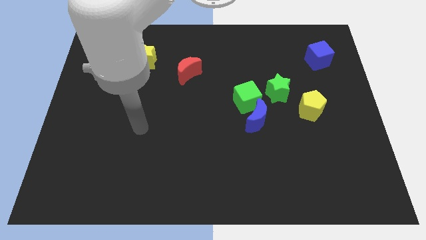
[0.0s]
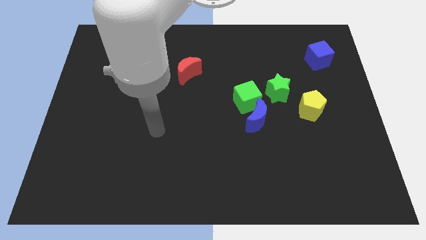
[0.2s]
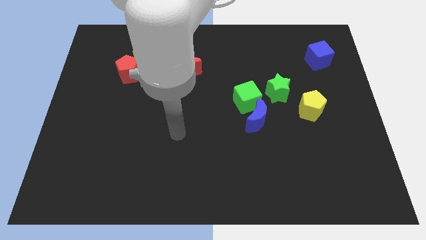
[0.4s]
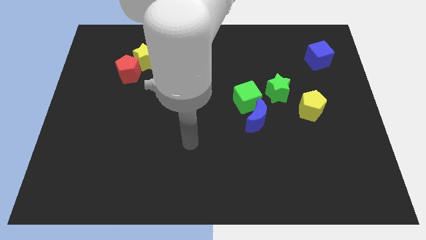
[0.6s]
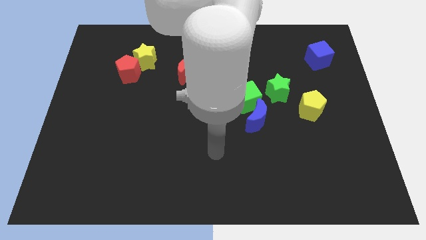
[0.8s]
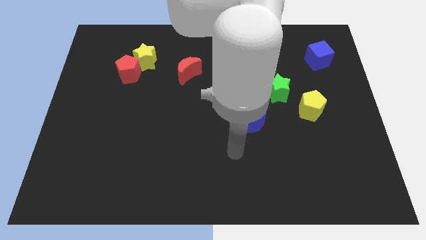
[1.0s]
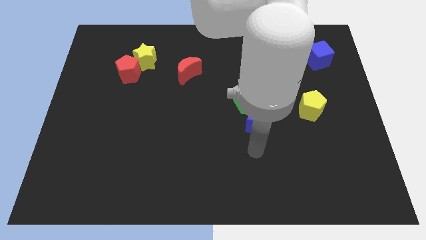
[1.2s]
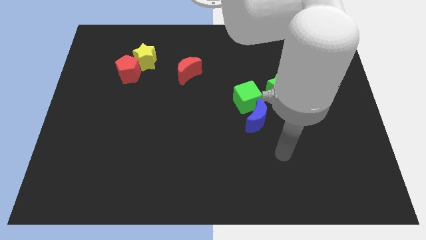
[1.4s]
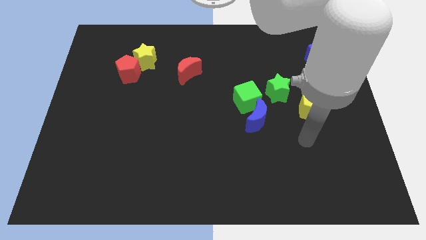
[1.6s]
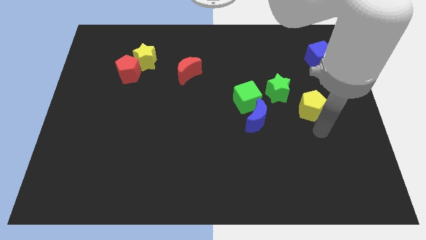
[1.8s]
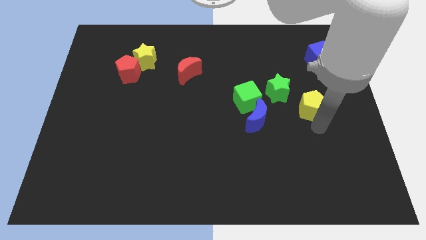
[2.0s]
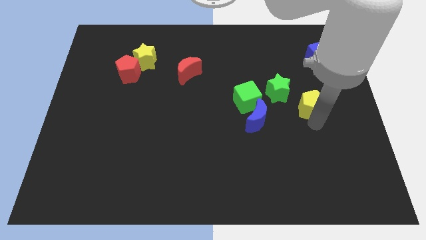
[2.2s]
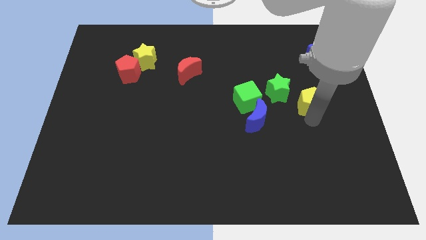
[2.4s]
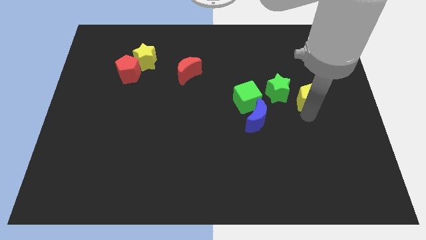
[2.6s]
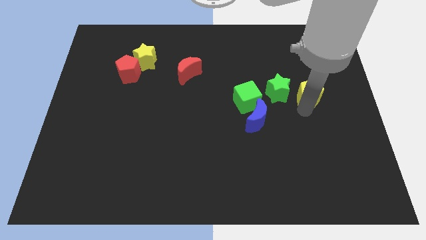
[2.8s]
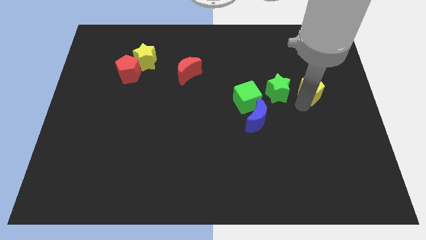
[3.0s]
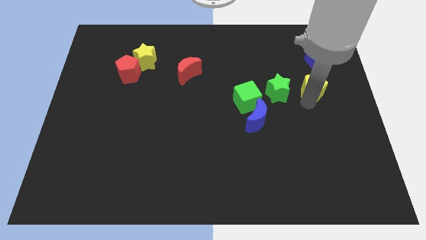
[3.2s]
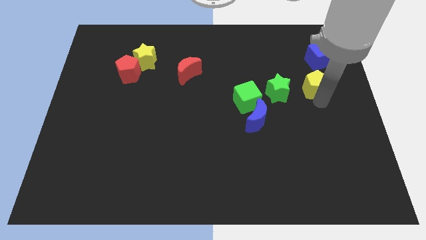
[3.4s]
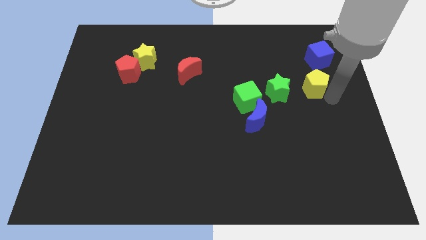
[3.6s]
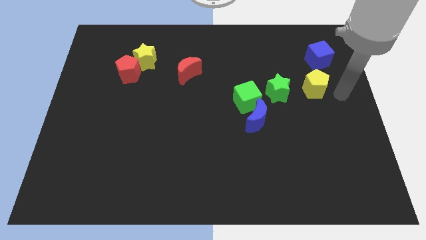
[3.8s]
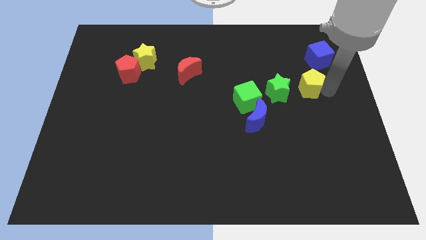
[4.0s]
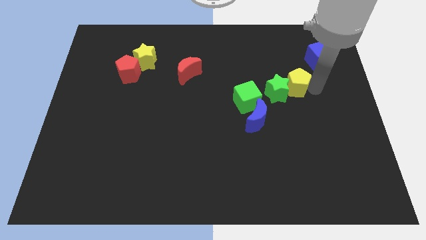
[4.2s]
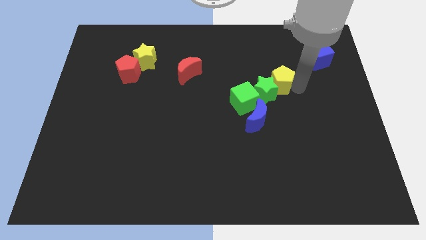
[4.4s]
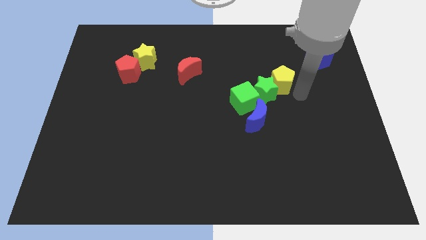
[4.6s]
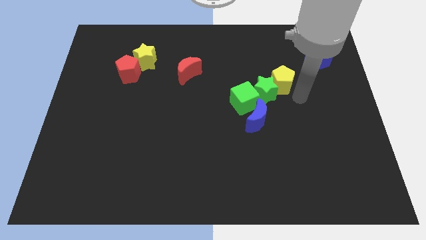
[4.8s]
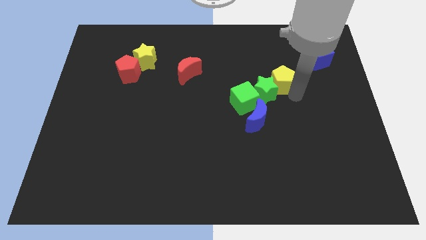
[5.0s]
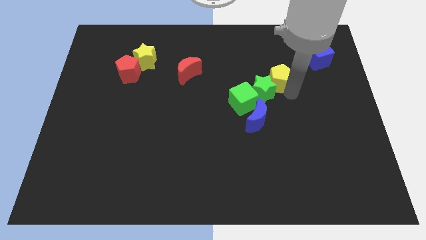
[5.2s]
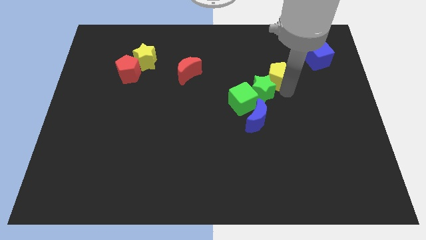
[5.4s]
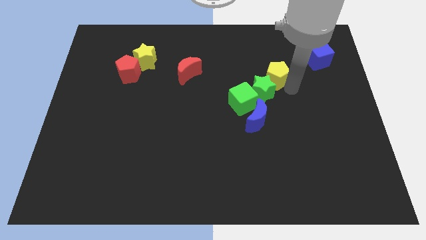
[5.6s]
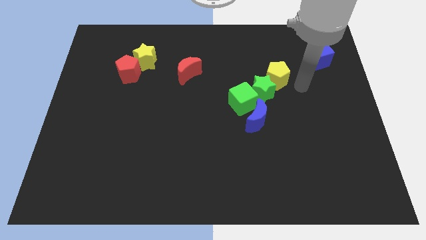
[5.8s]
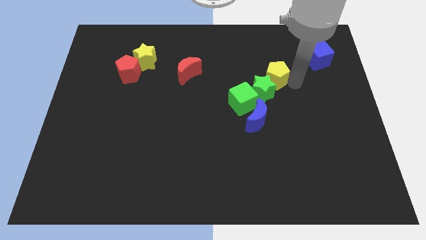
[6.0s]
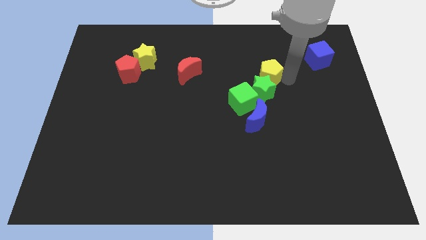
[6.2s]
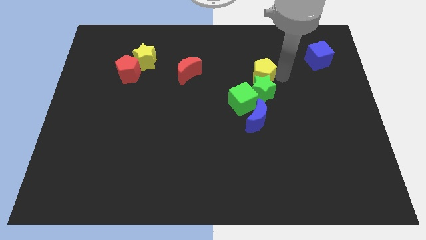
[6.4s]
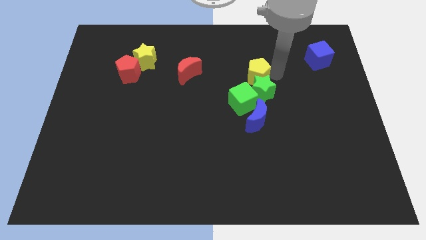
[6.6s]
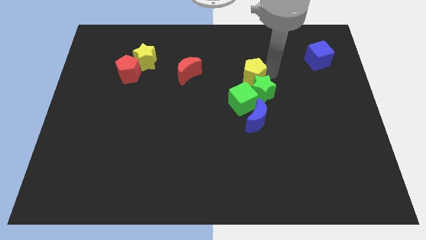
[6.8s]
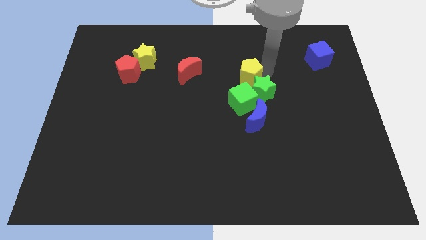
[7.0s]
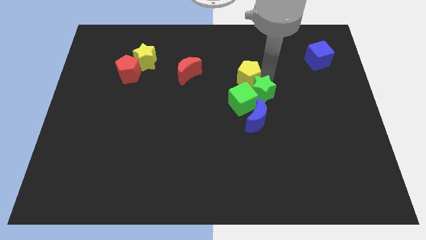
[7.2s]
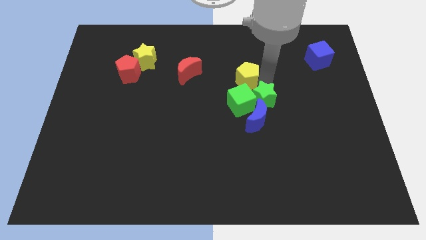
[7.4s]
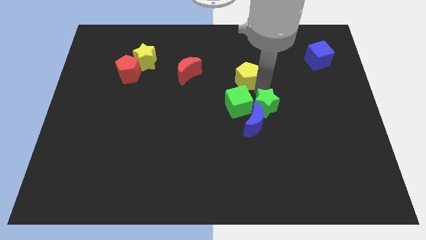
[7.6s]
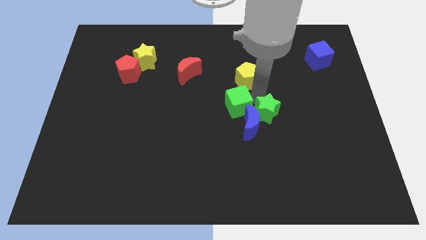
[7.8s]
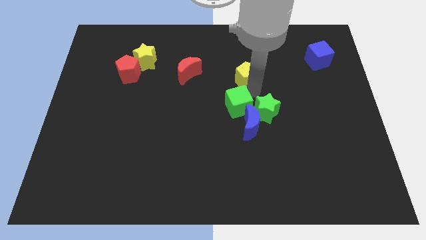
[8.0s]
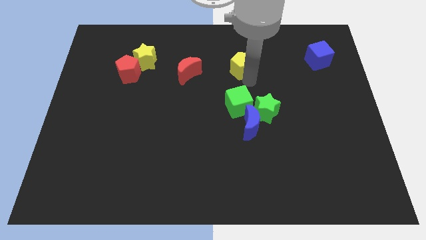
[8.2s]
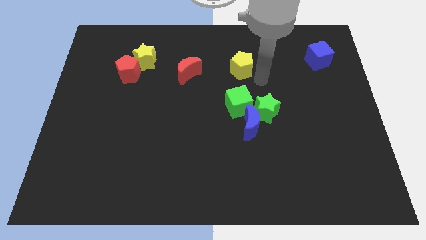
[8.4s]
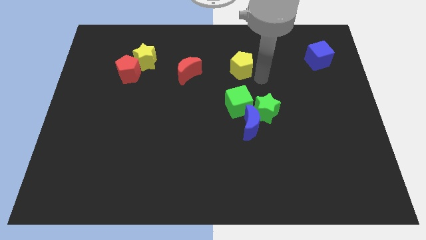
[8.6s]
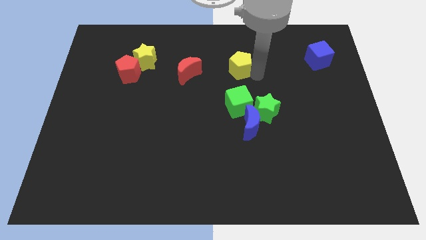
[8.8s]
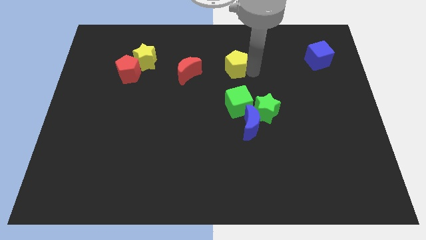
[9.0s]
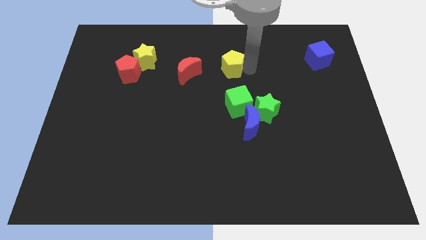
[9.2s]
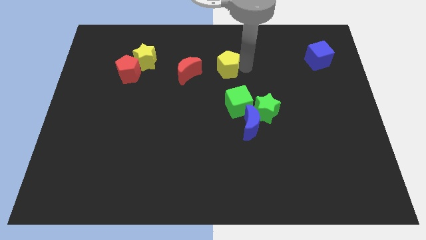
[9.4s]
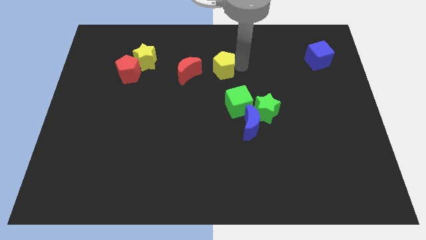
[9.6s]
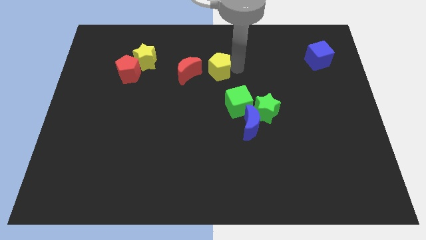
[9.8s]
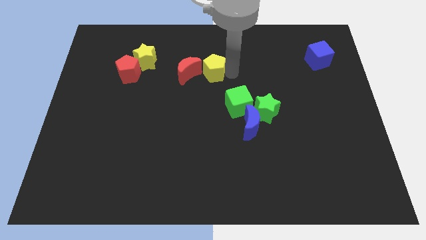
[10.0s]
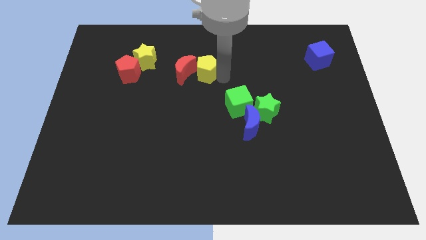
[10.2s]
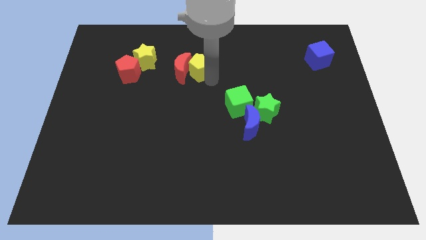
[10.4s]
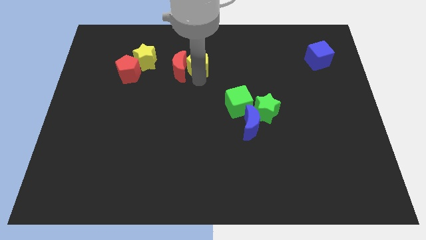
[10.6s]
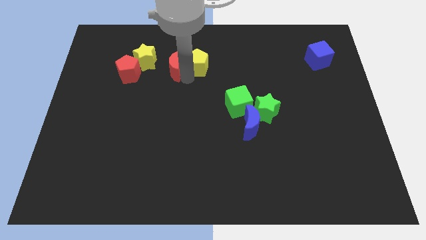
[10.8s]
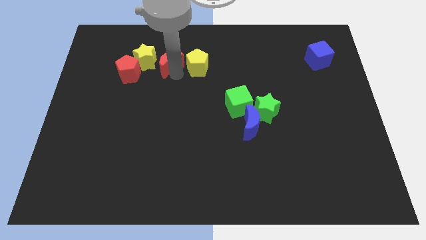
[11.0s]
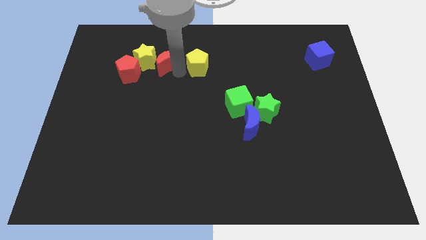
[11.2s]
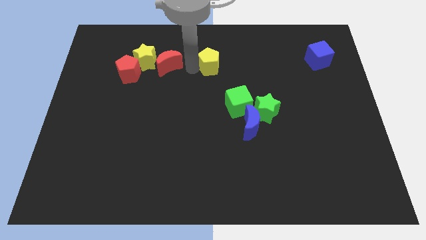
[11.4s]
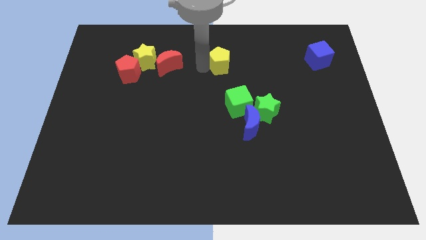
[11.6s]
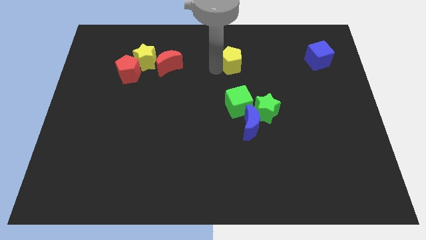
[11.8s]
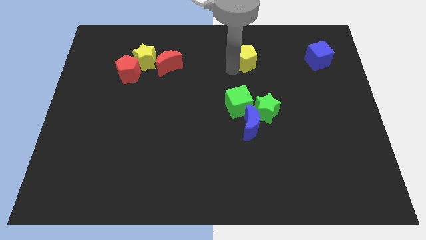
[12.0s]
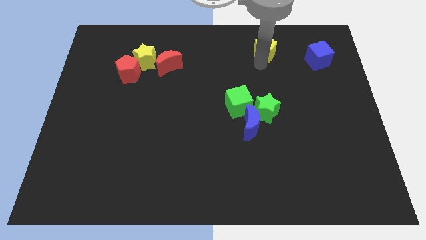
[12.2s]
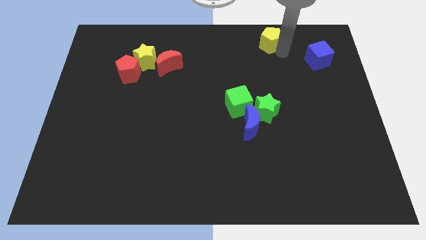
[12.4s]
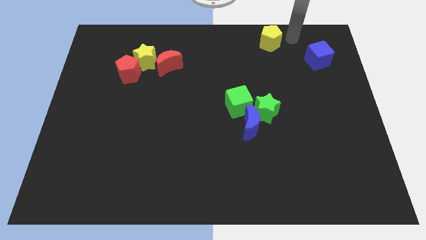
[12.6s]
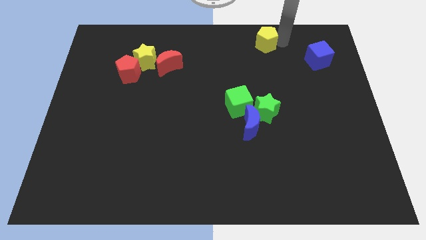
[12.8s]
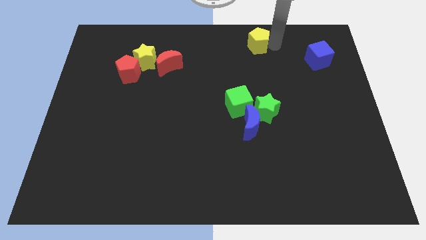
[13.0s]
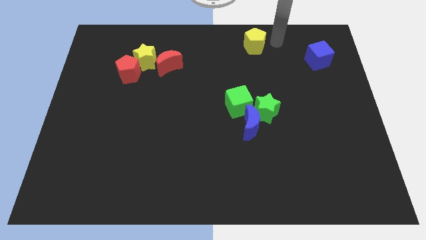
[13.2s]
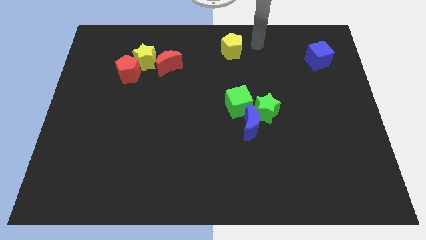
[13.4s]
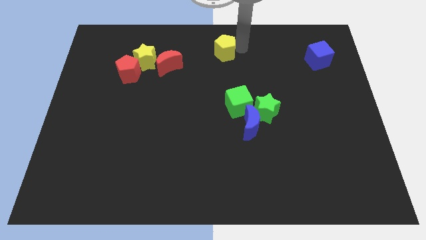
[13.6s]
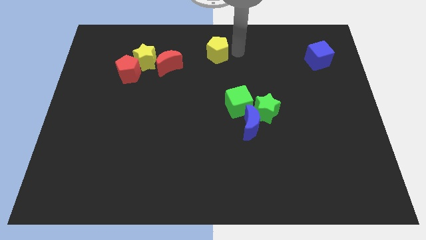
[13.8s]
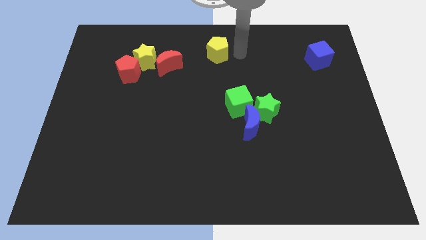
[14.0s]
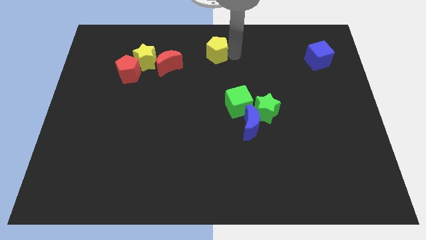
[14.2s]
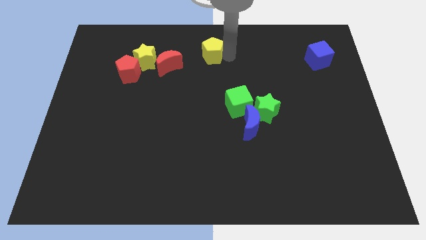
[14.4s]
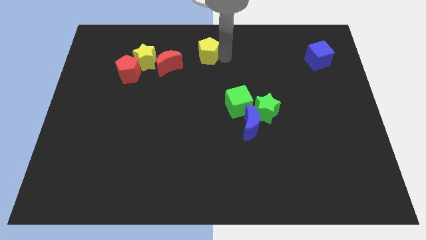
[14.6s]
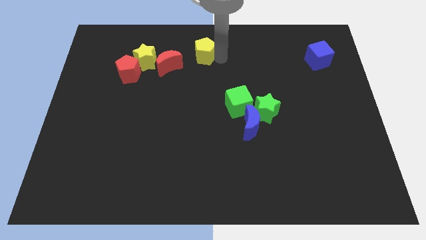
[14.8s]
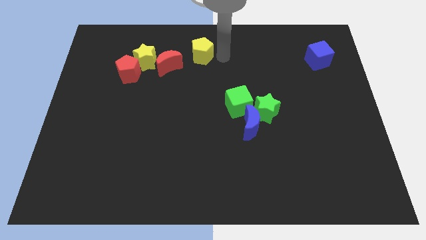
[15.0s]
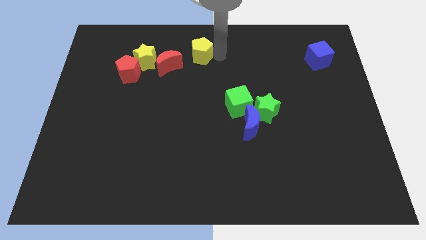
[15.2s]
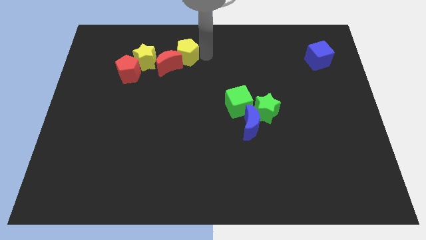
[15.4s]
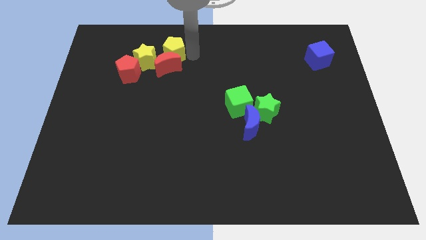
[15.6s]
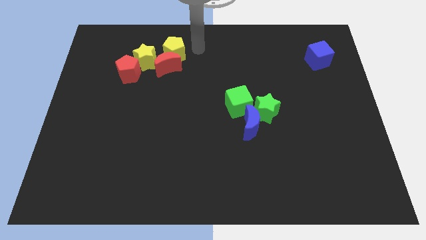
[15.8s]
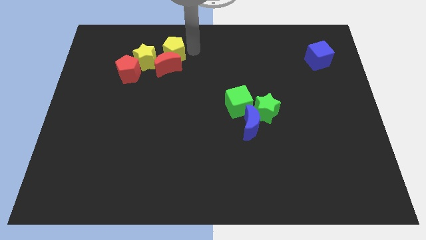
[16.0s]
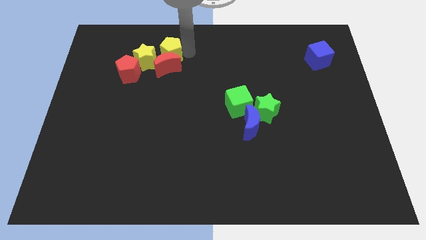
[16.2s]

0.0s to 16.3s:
move the yellow pentagon to the top right of the red pentagon
